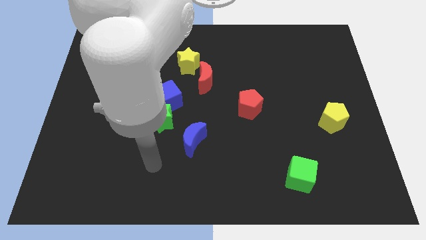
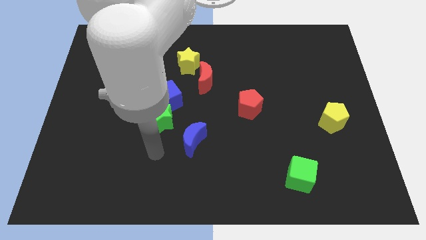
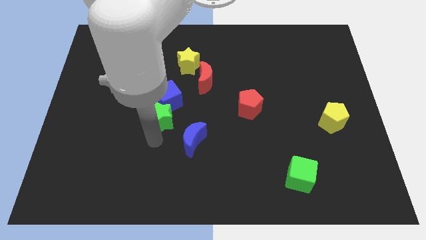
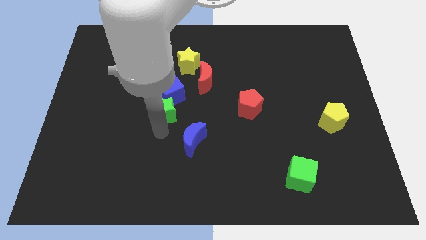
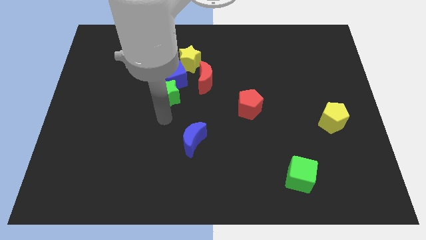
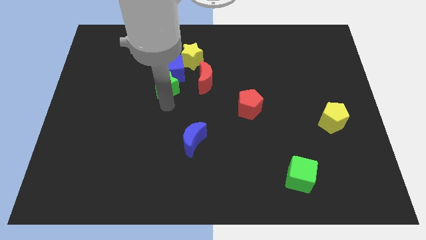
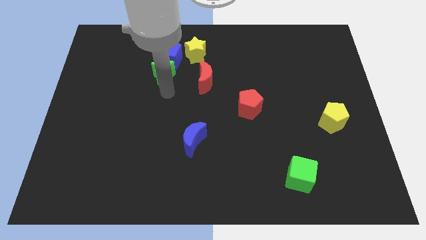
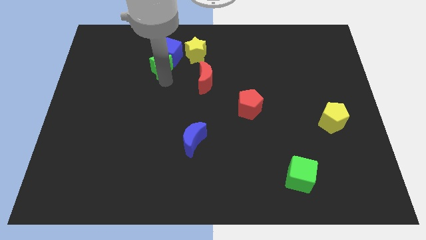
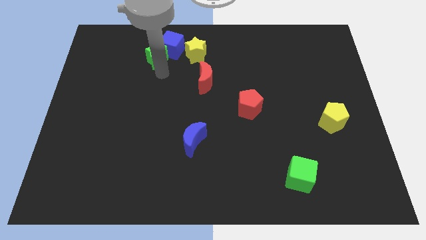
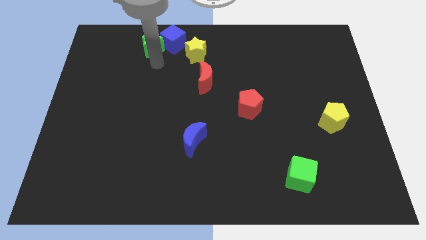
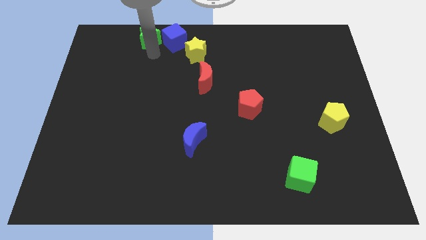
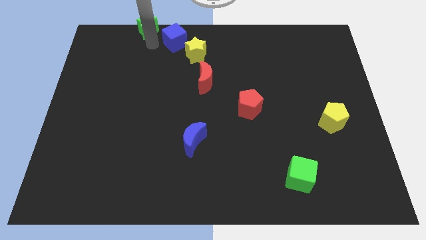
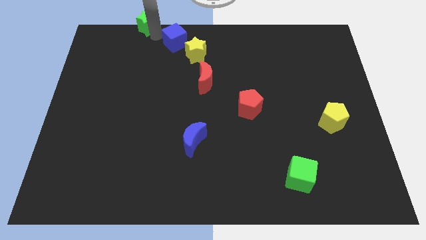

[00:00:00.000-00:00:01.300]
separate the blue cube from the green star

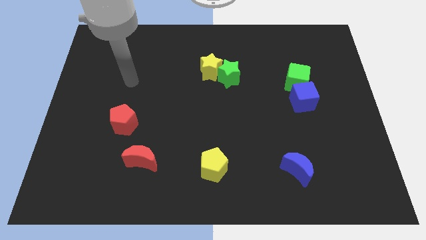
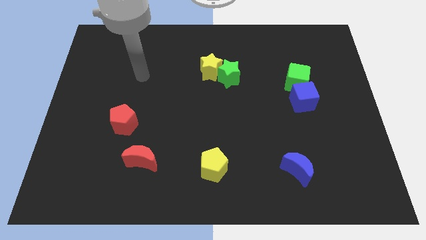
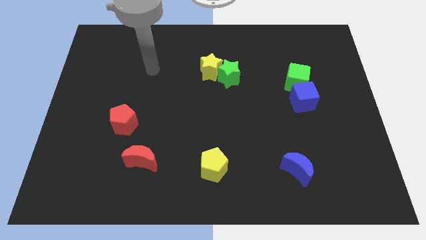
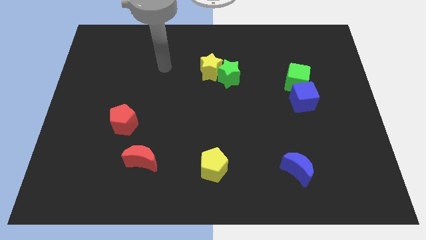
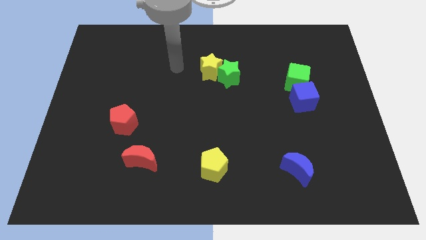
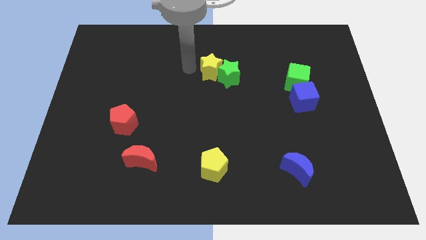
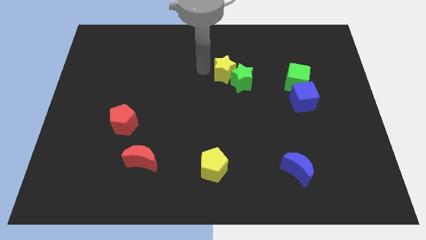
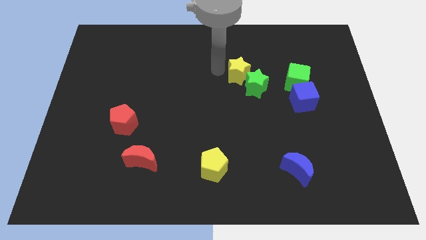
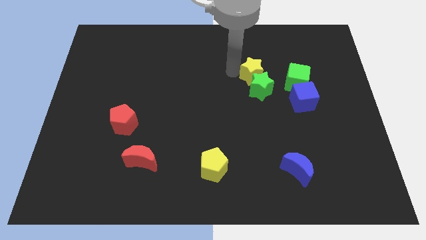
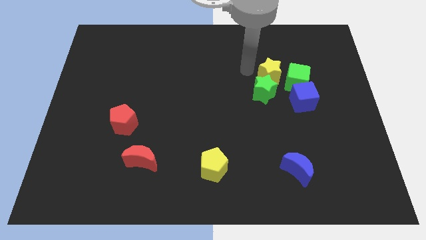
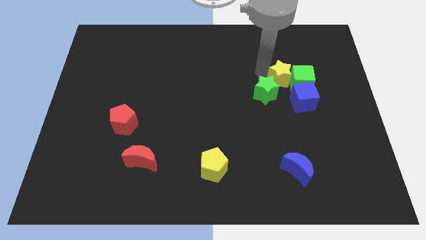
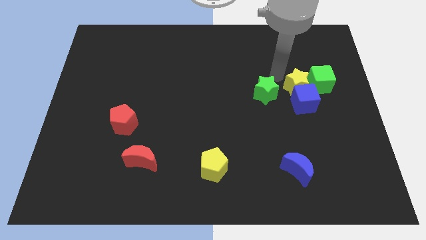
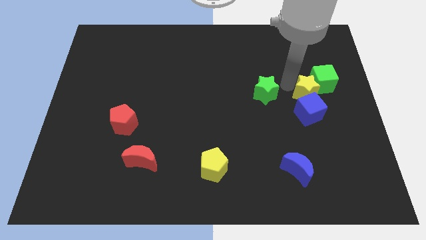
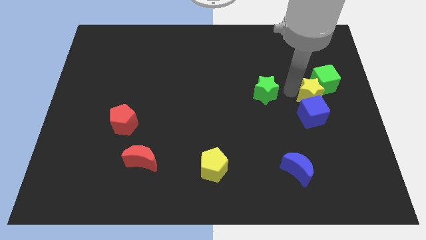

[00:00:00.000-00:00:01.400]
move the green star away from the yellow star

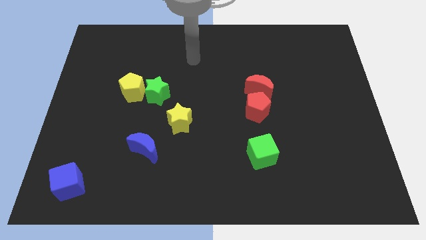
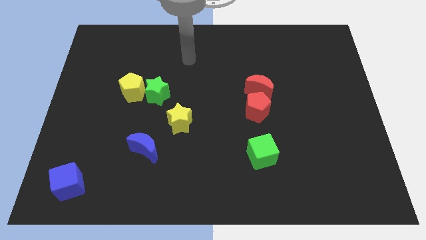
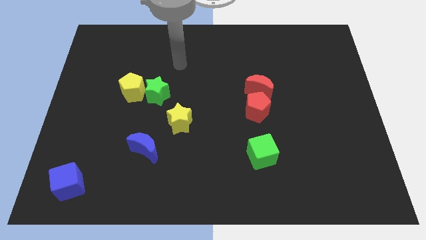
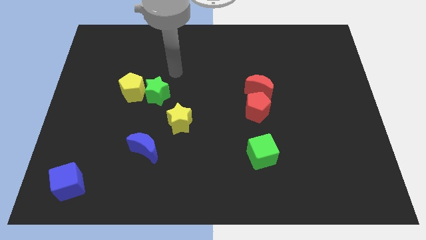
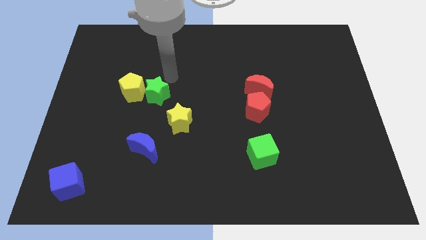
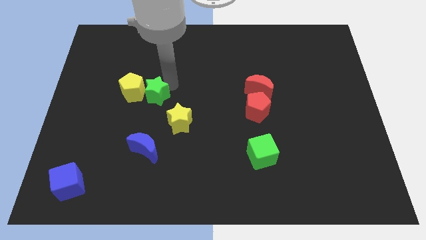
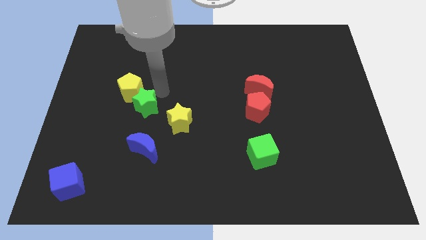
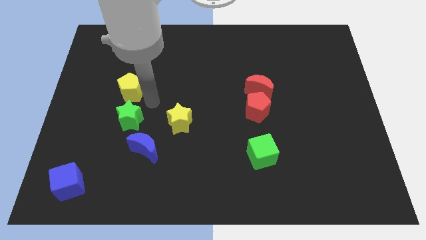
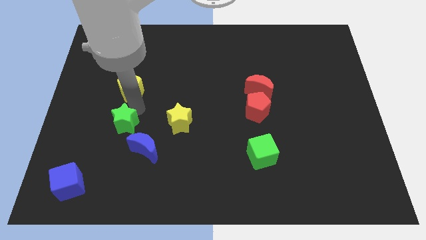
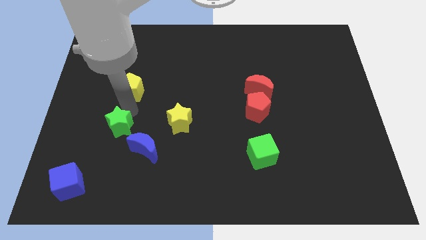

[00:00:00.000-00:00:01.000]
move the yellow pentagon away from the green star

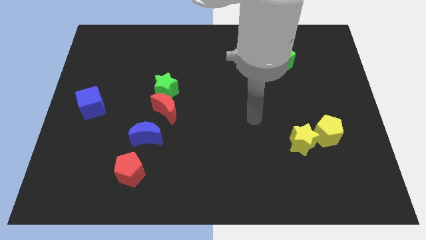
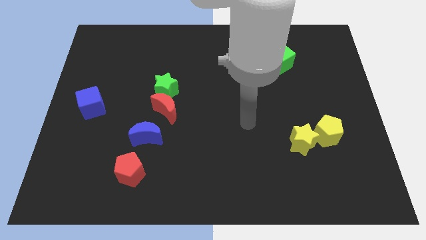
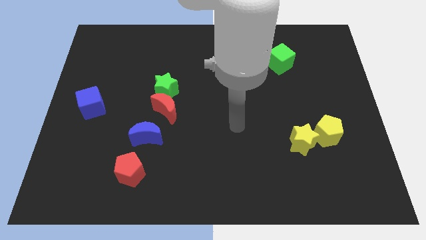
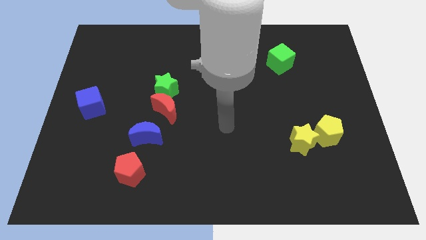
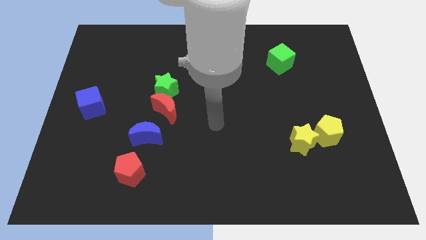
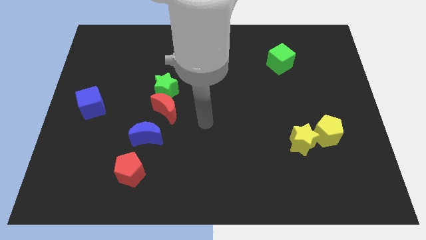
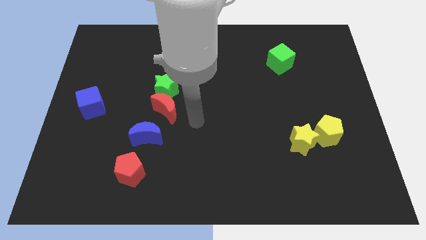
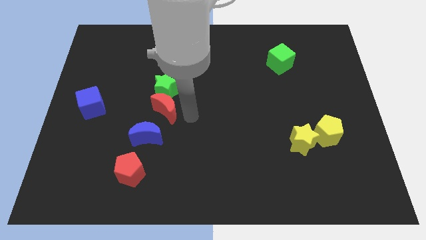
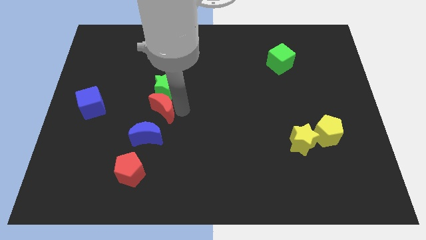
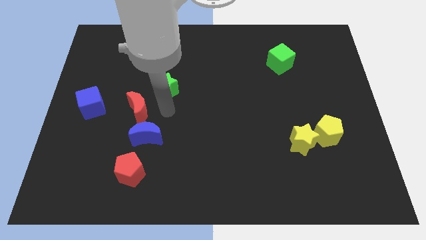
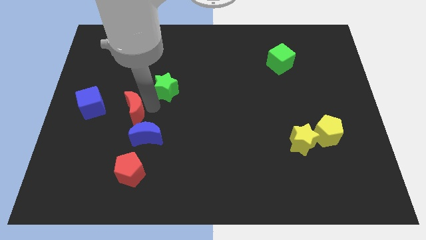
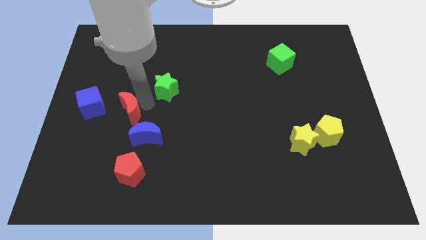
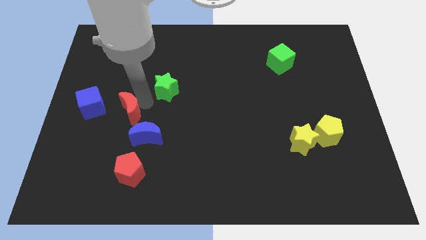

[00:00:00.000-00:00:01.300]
move the green star away from the red moon

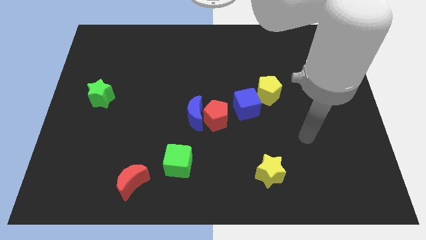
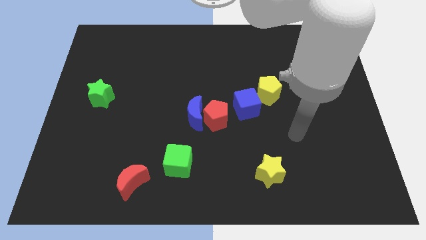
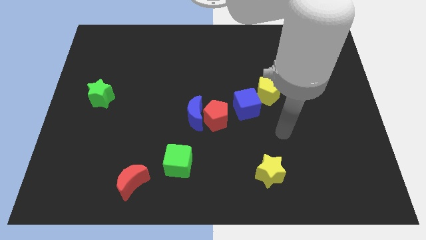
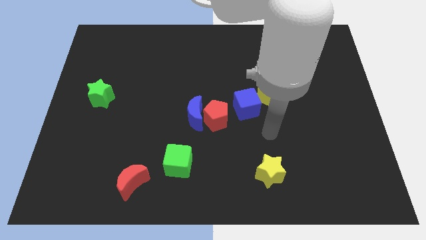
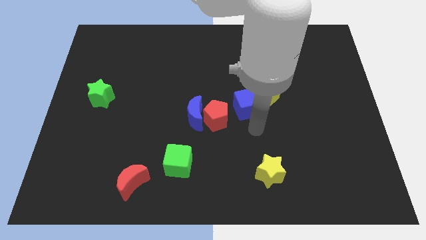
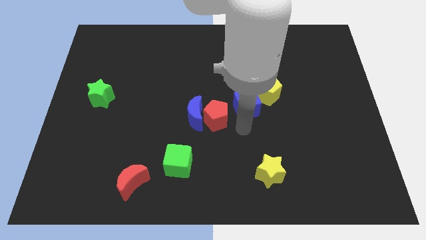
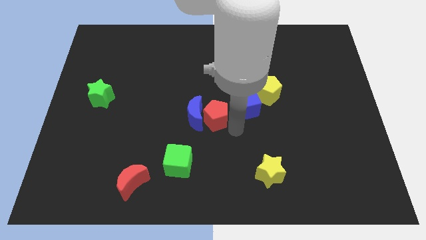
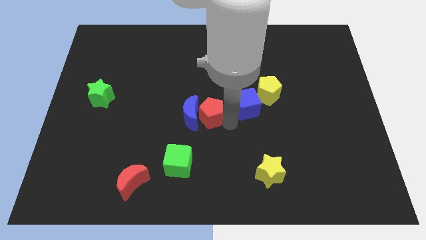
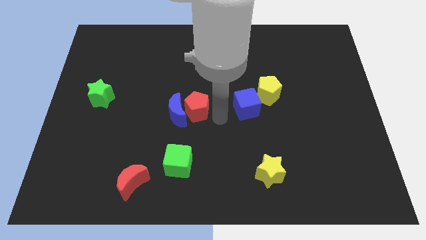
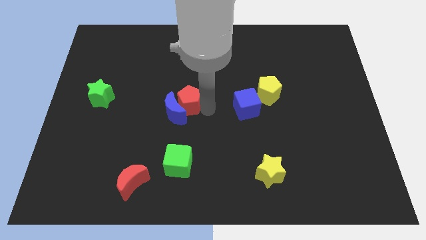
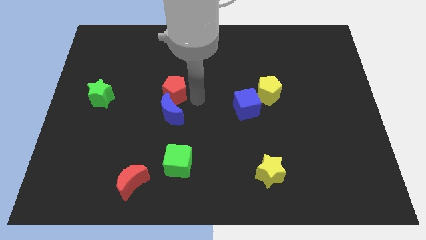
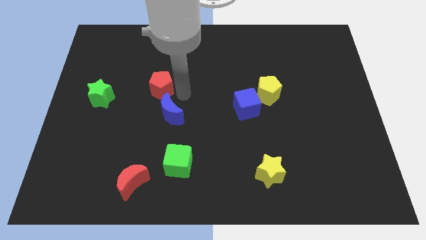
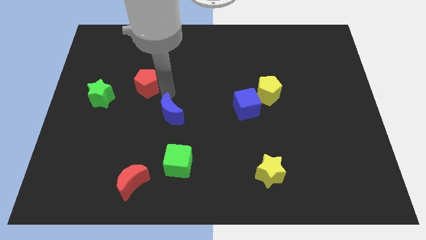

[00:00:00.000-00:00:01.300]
separate the blue moon from the red pentagon

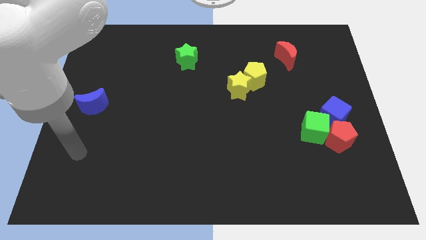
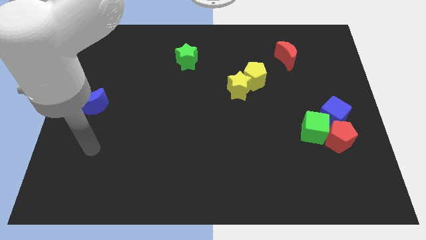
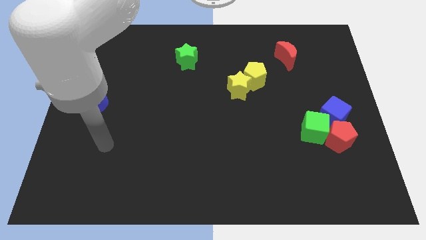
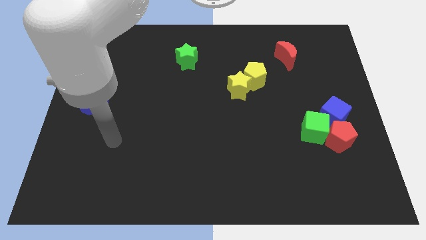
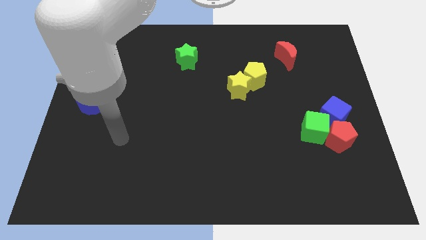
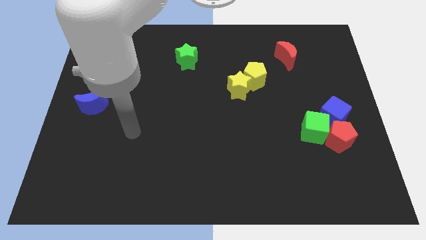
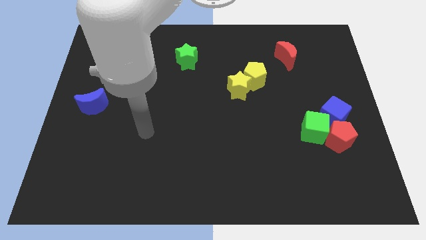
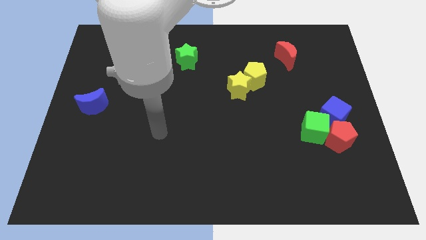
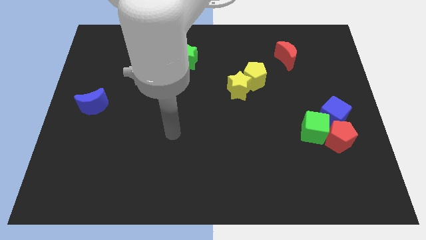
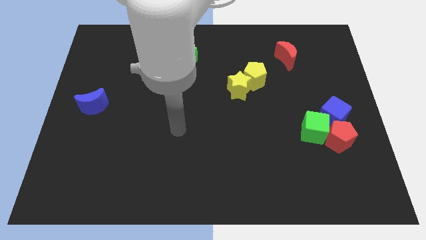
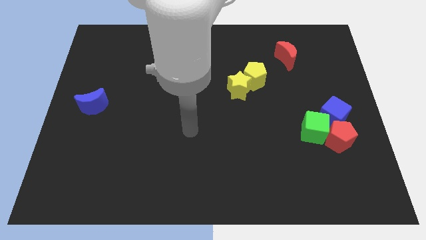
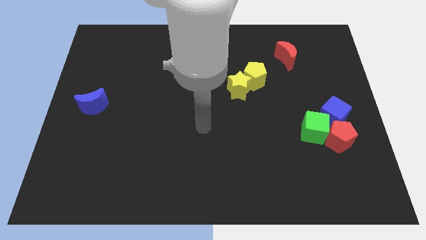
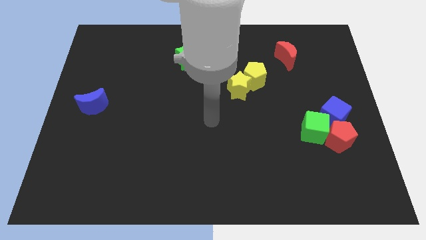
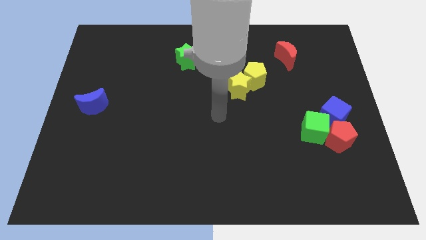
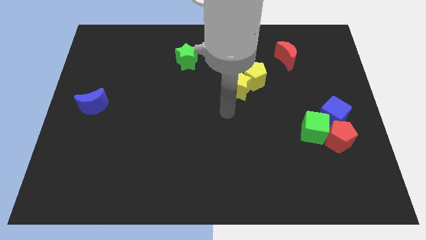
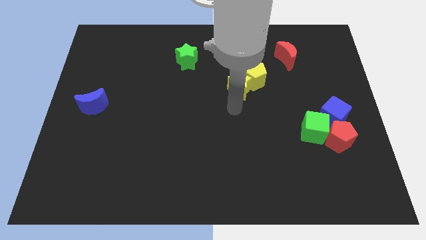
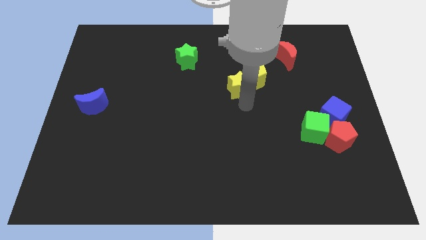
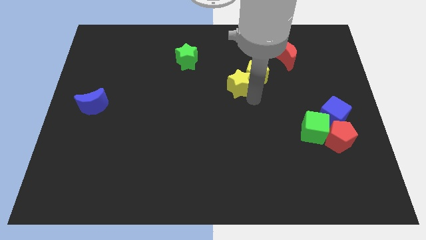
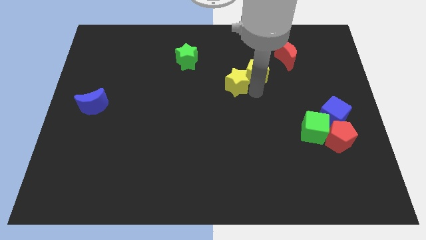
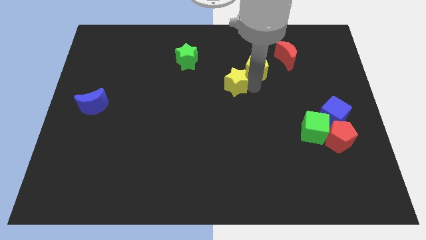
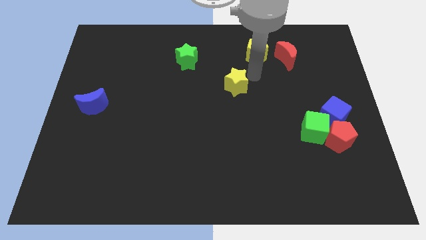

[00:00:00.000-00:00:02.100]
move the yellow star away from the yellow pentagon

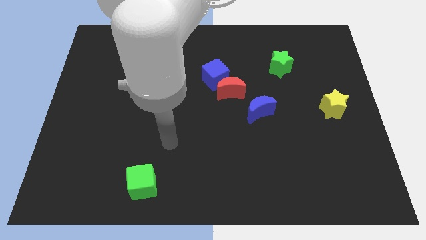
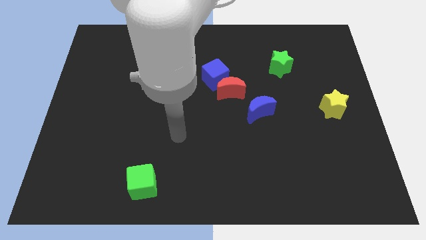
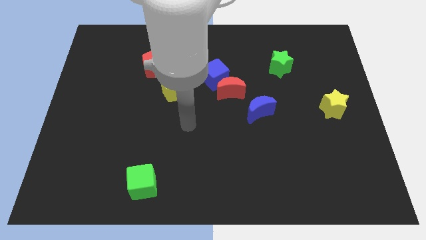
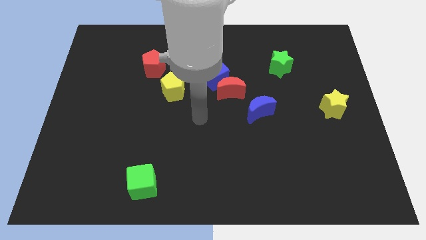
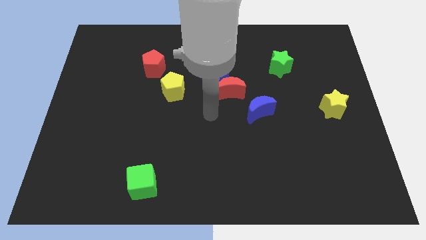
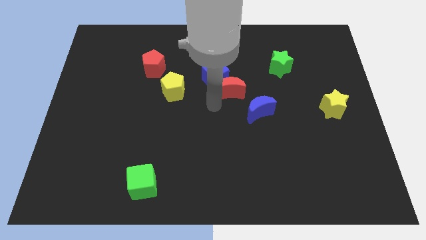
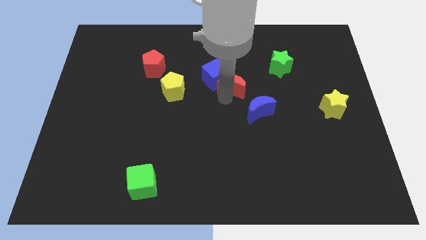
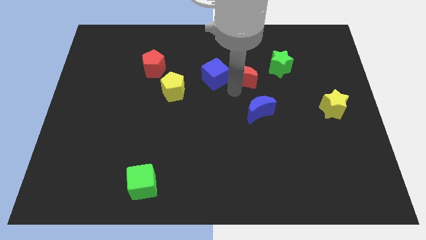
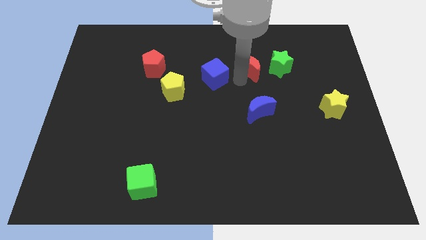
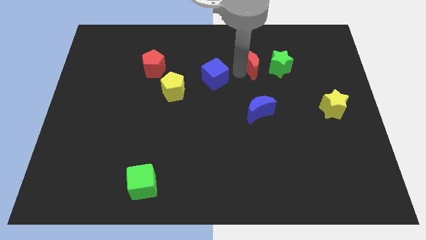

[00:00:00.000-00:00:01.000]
pull the blue cube apart from the red moon
